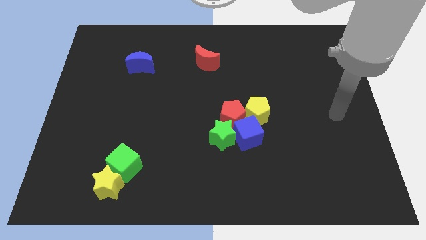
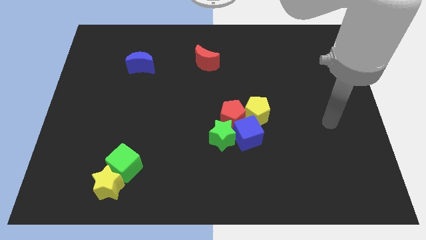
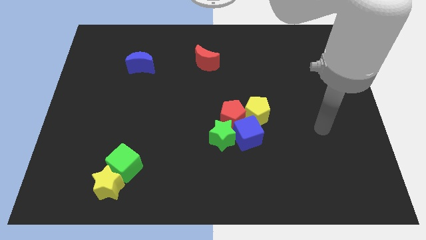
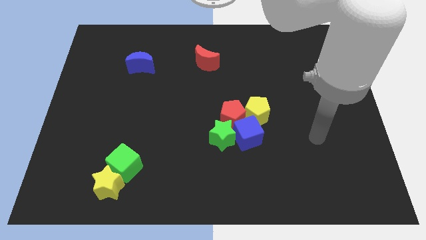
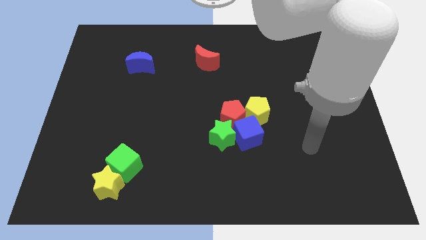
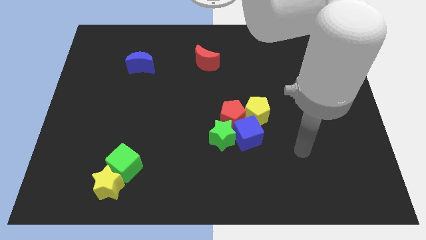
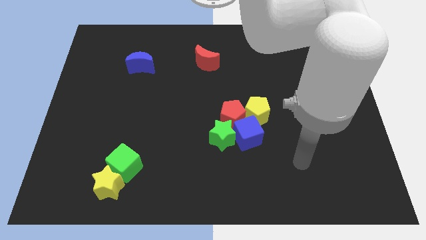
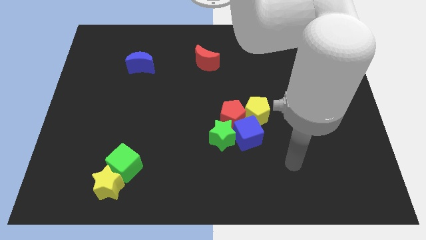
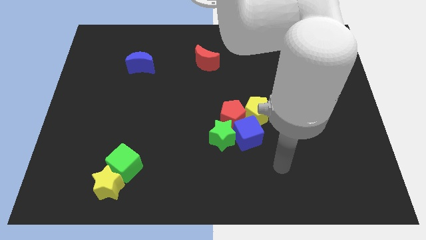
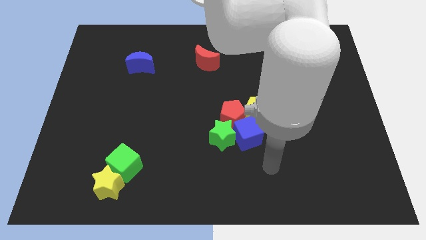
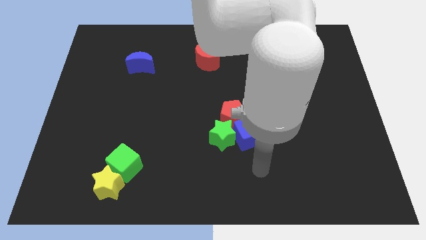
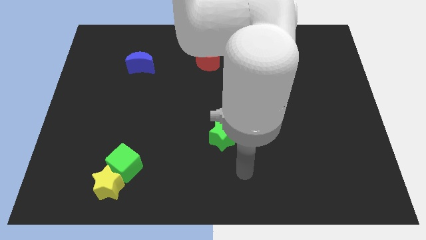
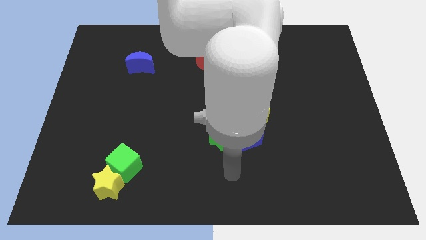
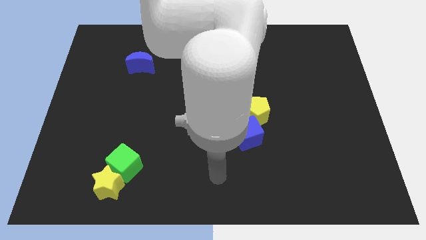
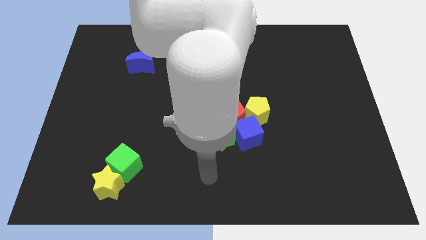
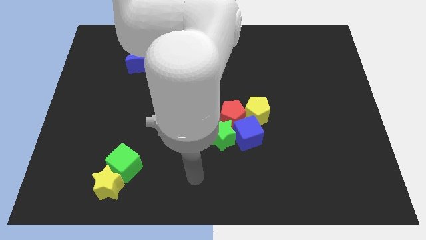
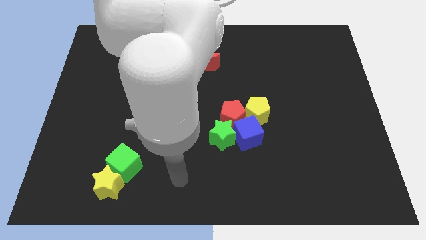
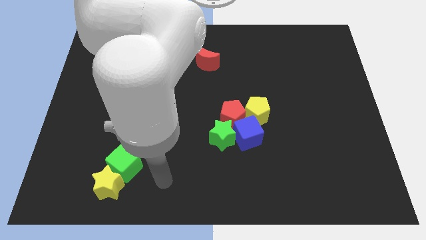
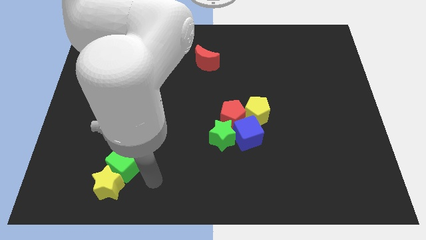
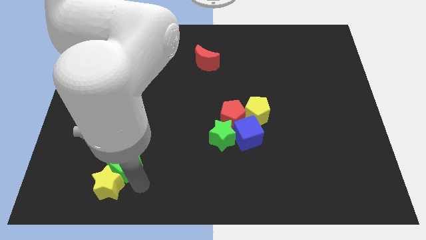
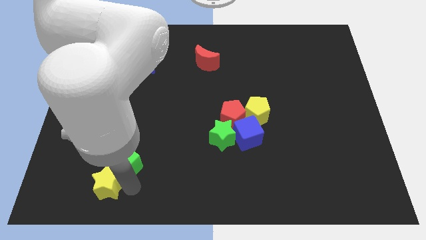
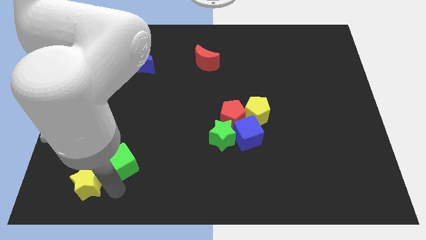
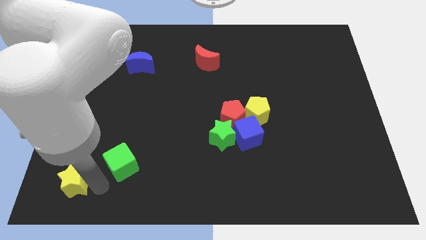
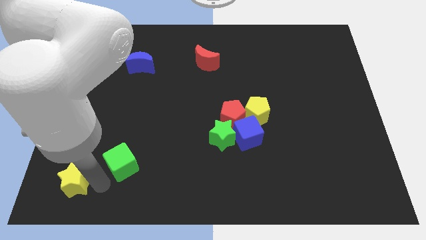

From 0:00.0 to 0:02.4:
move the green cube away from the yellow star

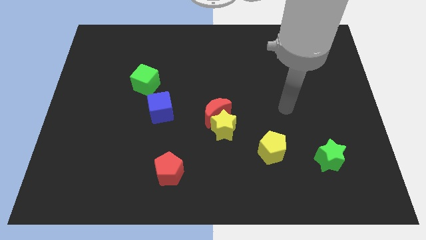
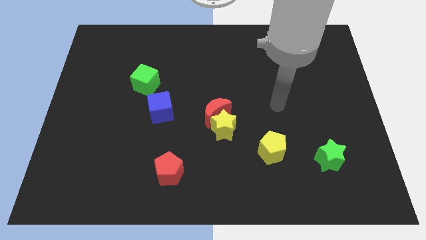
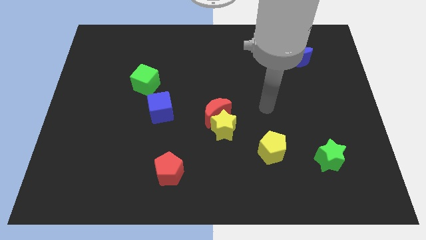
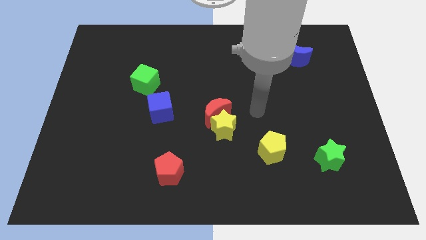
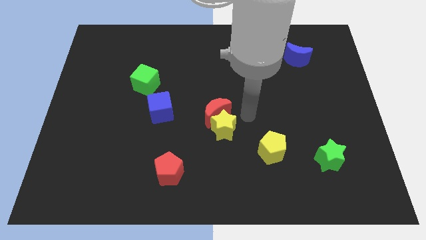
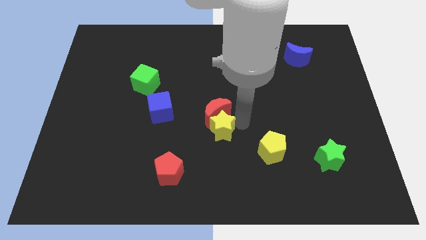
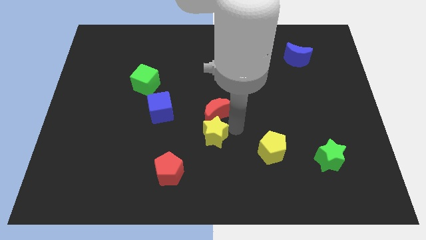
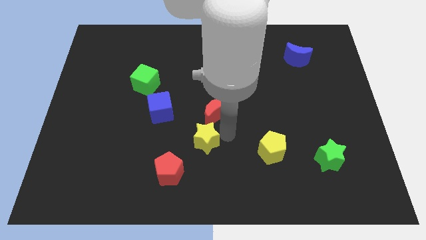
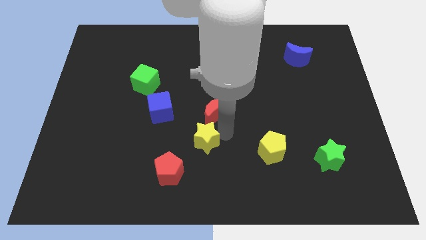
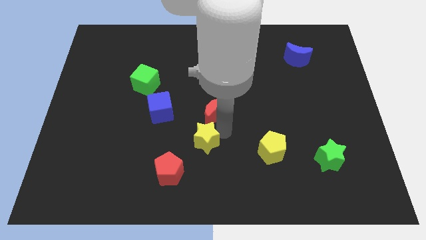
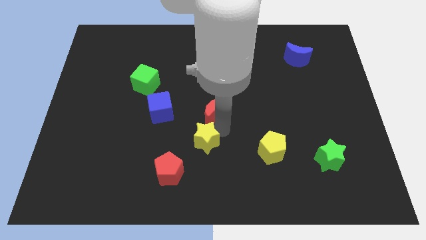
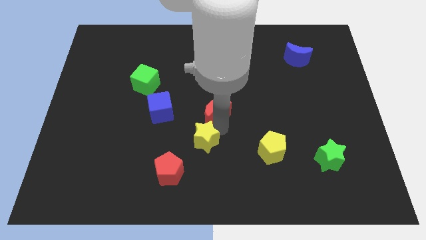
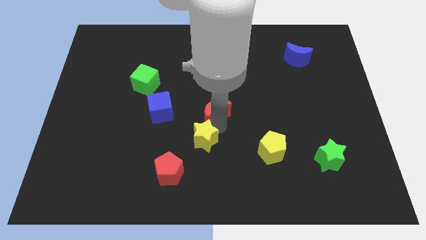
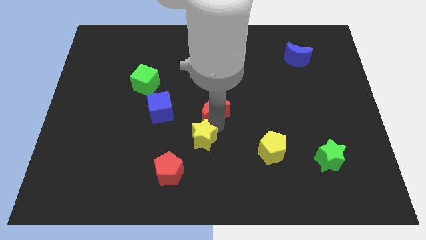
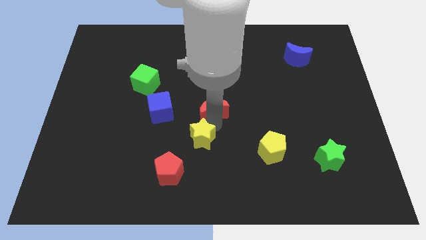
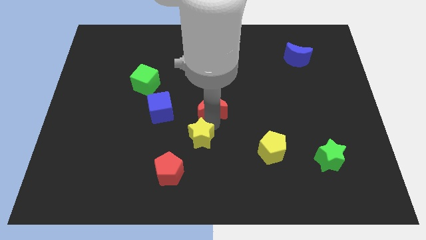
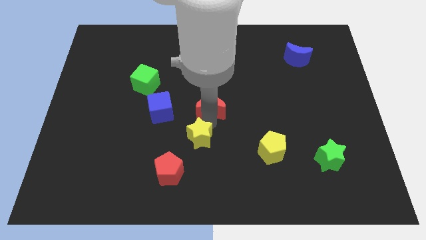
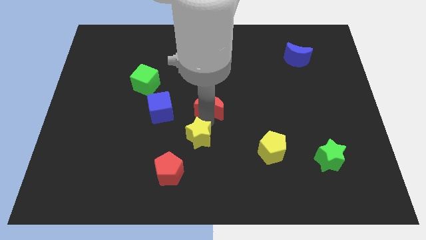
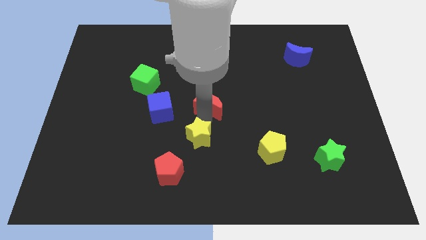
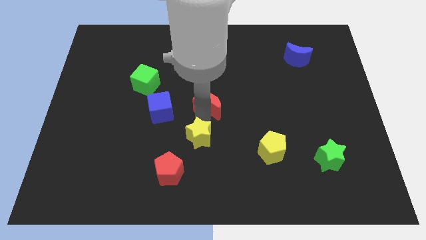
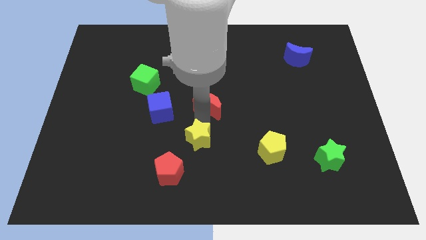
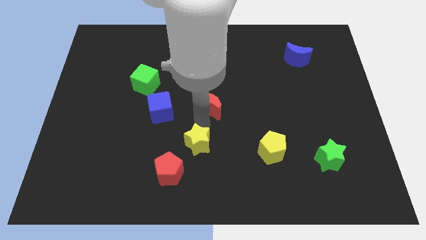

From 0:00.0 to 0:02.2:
separate the red moon from the yellow star

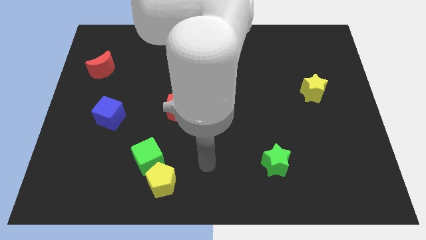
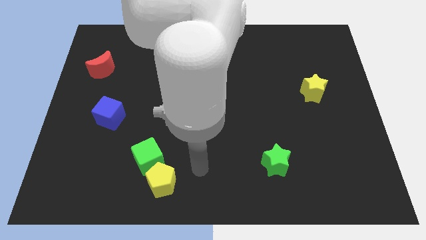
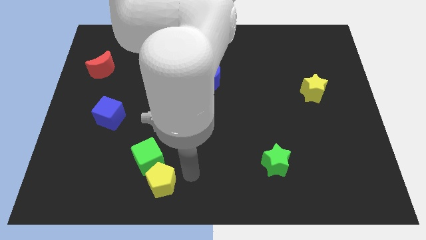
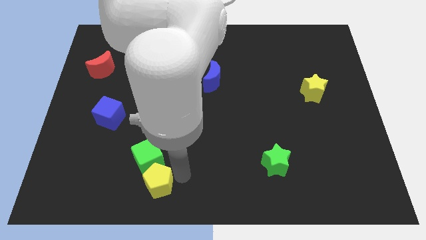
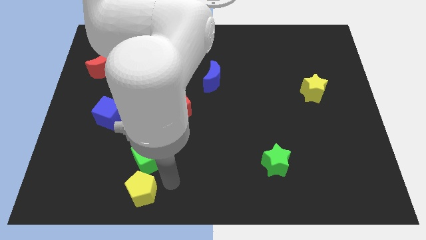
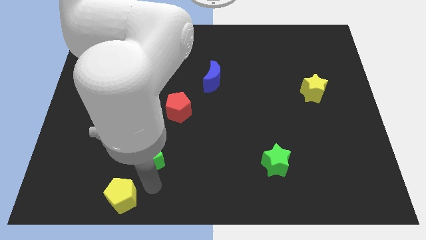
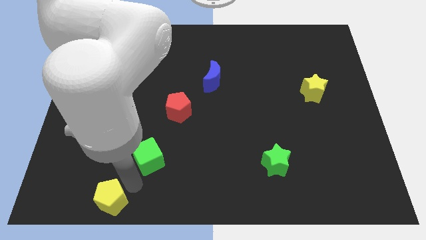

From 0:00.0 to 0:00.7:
move the green cube away from the yellow pentagon

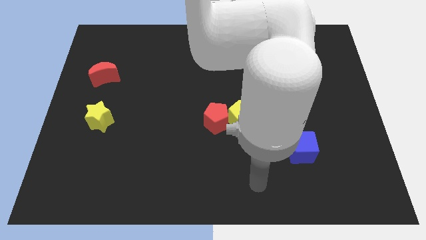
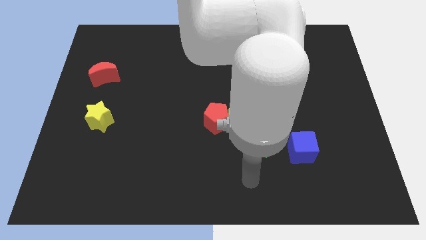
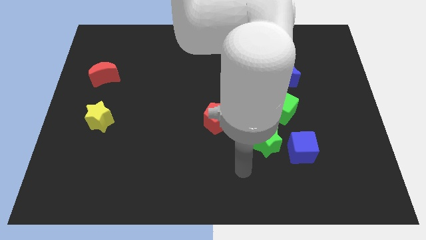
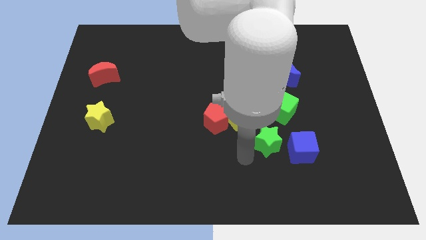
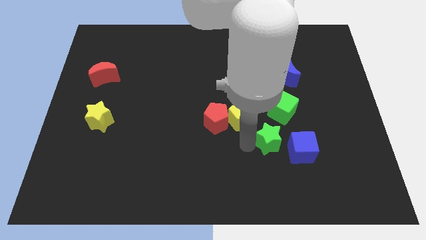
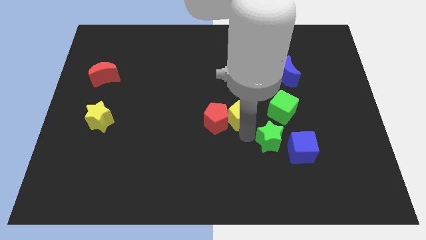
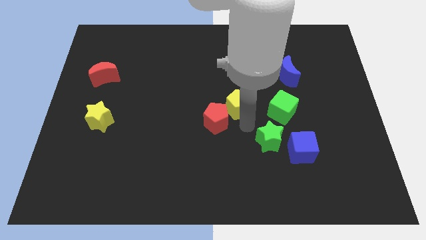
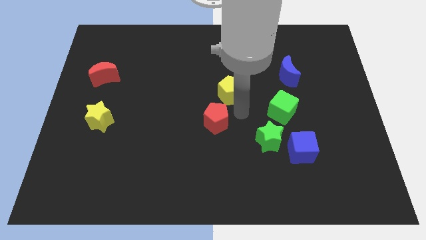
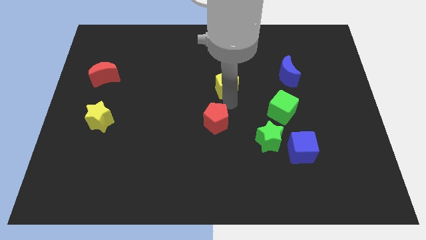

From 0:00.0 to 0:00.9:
separate the red pentagon from the yellow pentagon

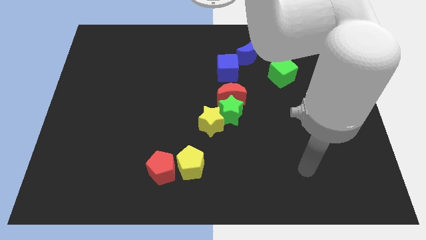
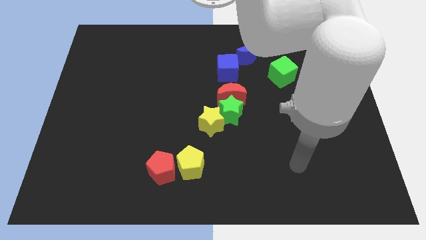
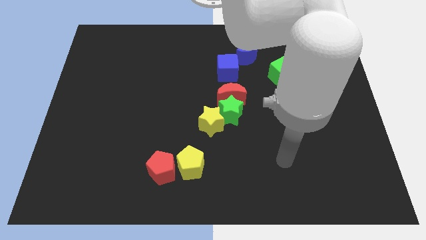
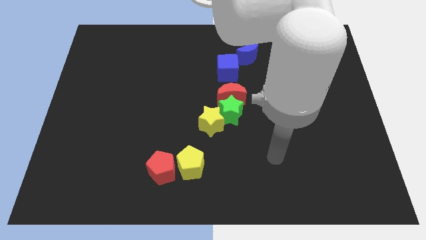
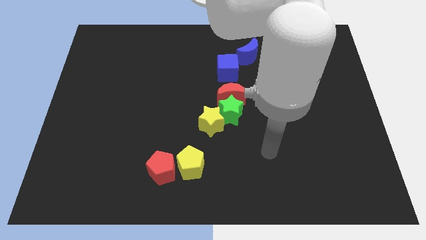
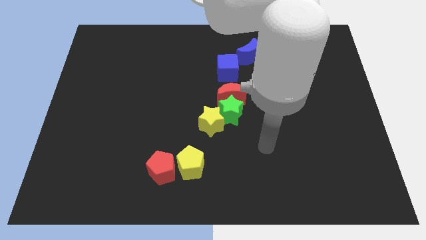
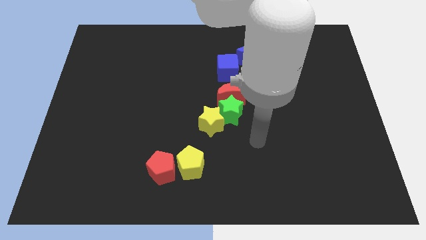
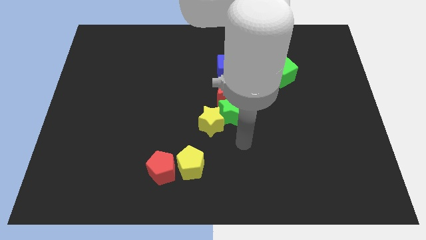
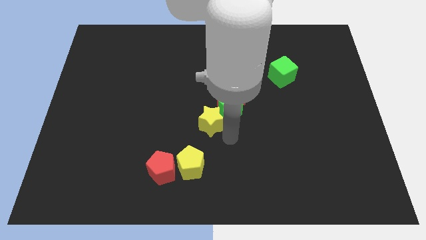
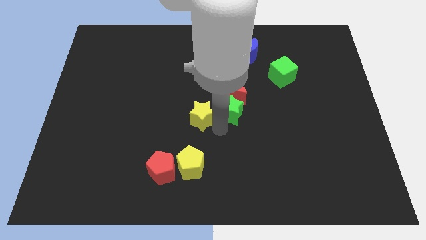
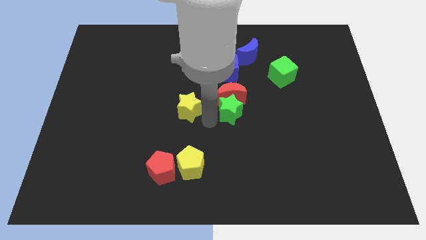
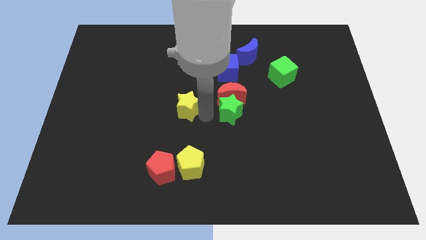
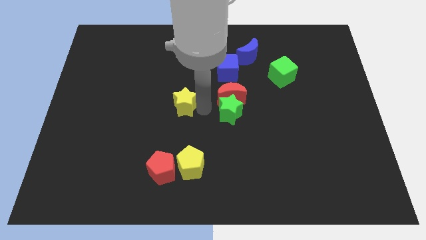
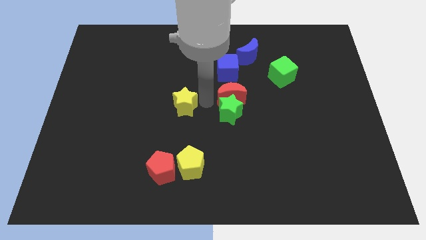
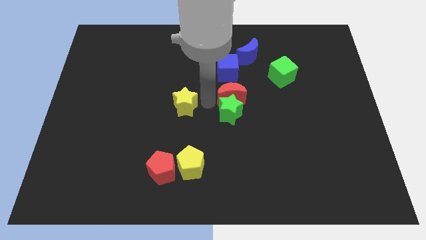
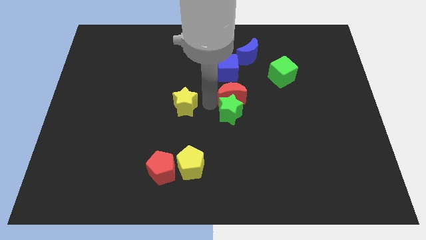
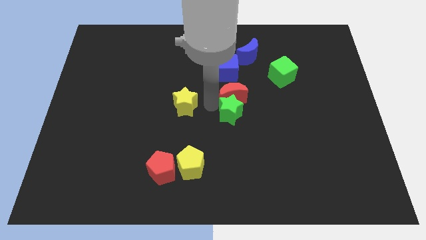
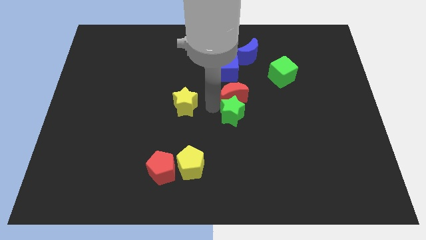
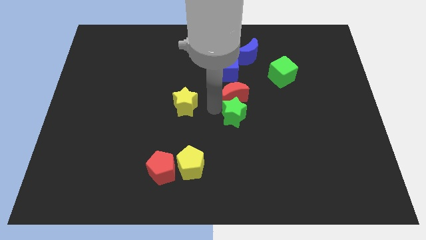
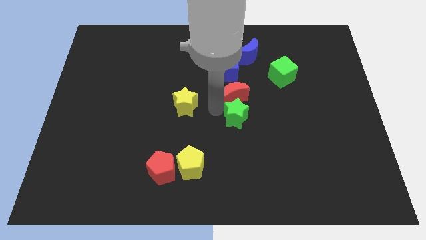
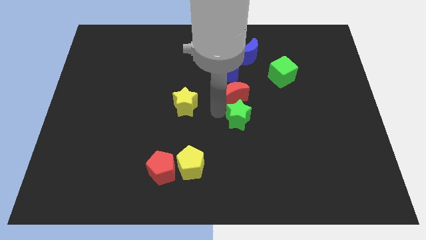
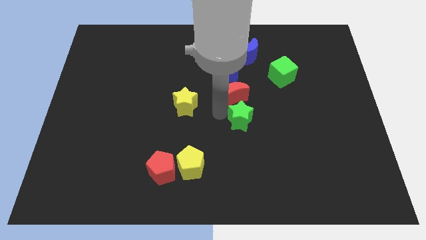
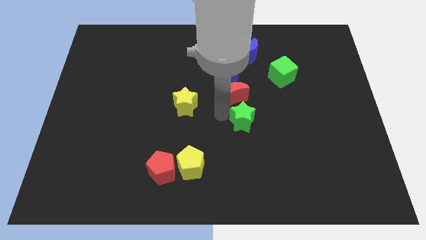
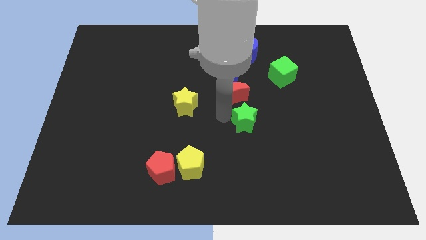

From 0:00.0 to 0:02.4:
move the green star away from the yellow star and red moon

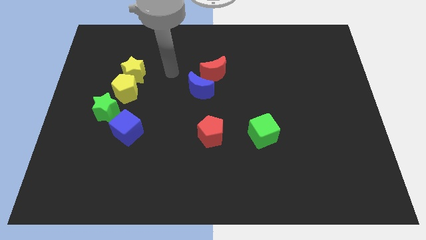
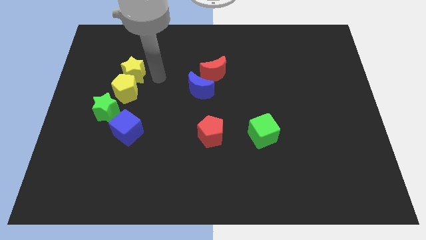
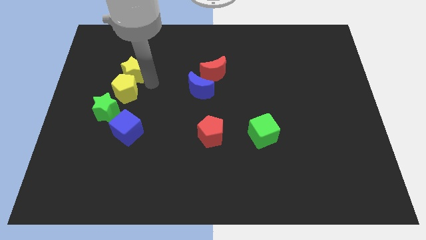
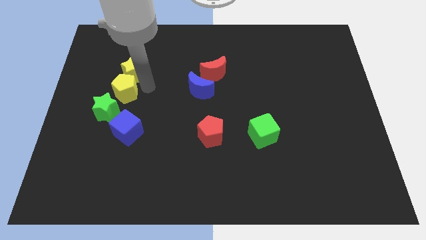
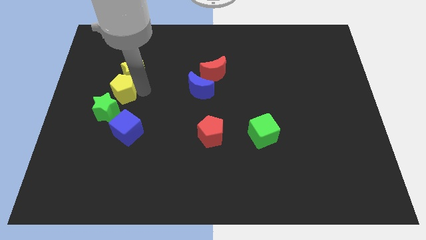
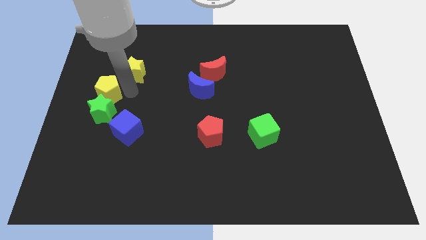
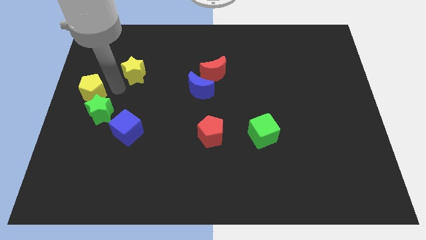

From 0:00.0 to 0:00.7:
pull the yellow star apart from the yellow pentagon
